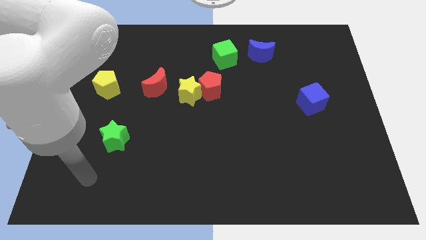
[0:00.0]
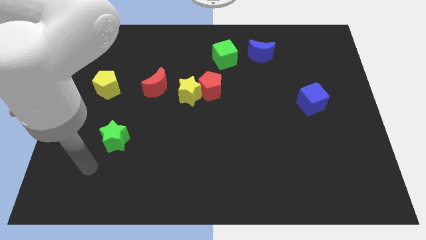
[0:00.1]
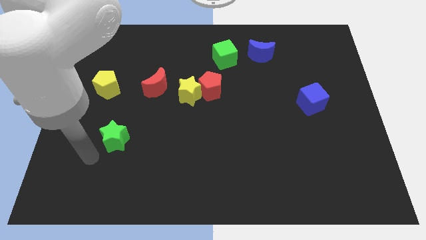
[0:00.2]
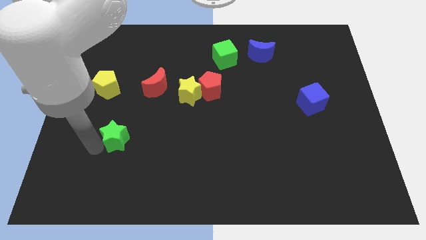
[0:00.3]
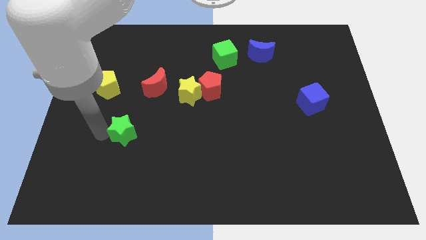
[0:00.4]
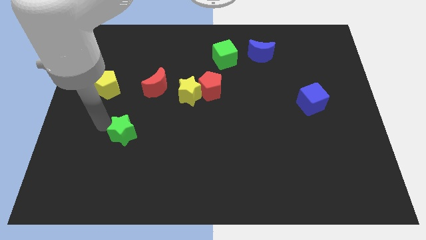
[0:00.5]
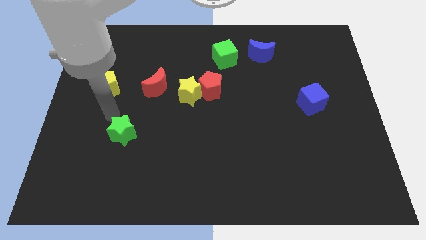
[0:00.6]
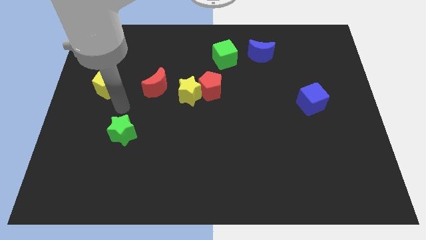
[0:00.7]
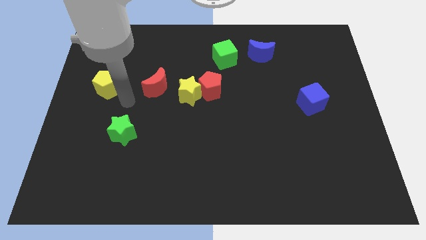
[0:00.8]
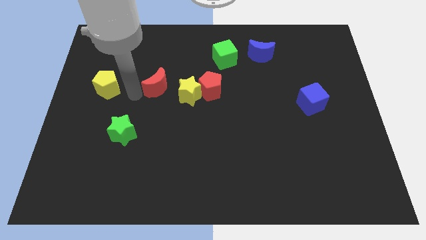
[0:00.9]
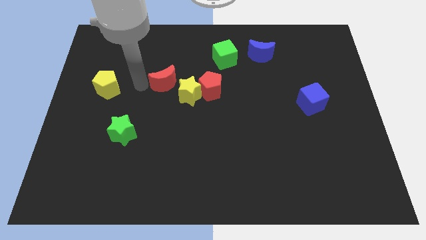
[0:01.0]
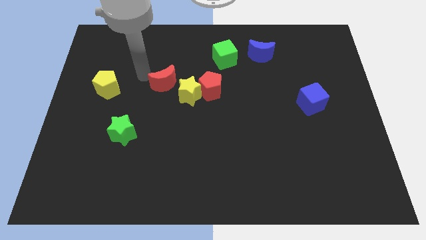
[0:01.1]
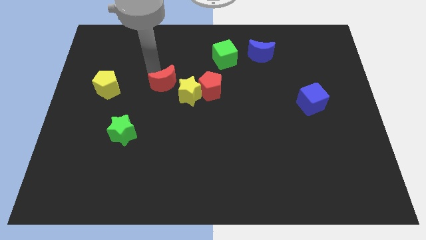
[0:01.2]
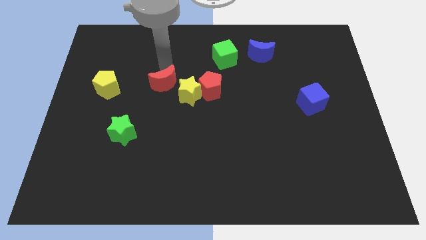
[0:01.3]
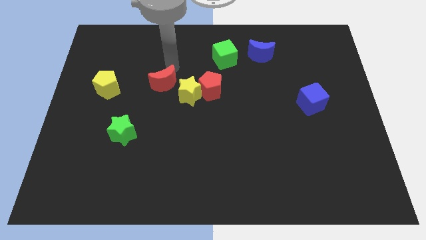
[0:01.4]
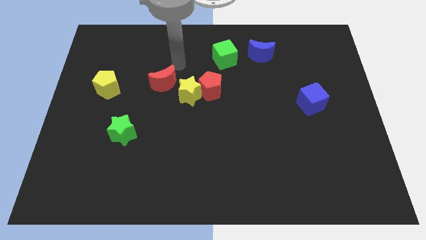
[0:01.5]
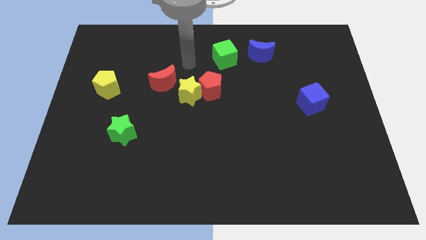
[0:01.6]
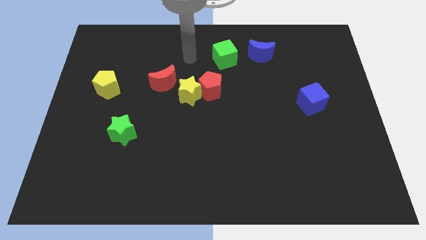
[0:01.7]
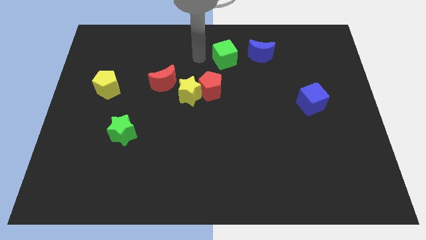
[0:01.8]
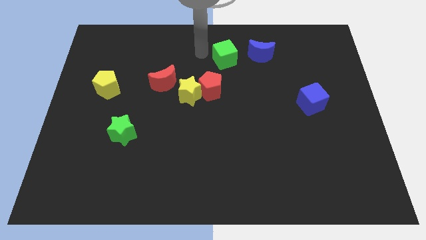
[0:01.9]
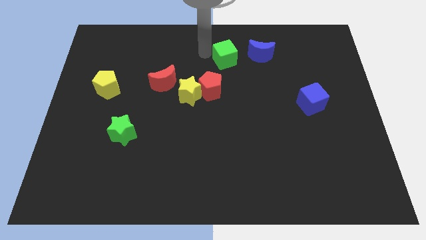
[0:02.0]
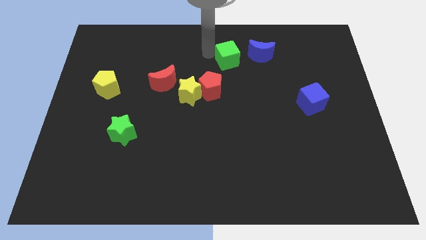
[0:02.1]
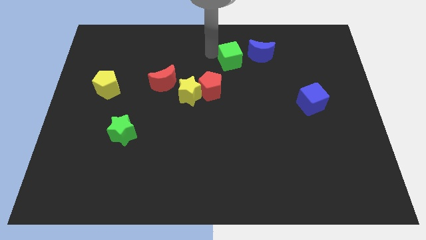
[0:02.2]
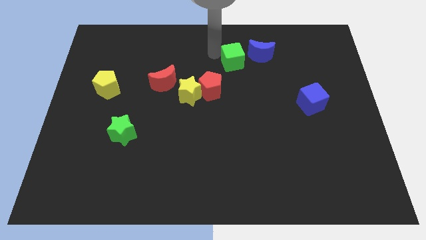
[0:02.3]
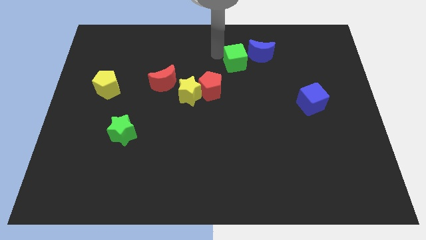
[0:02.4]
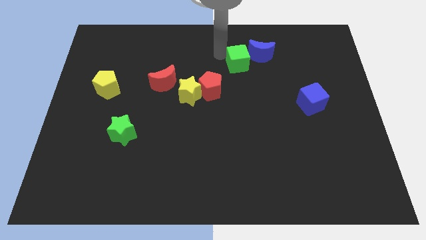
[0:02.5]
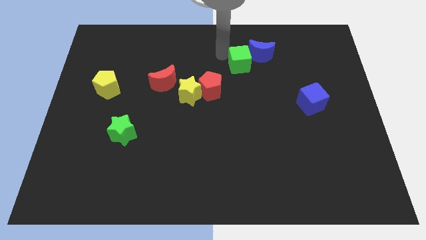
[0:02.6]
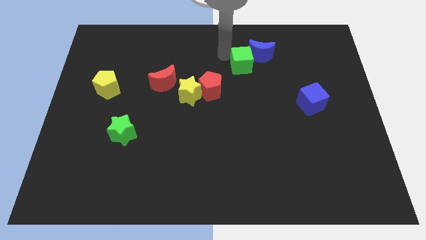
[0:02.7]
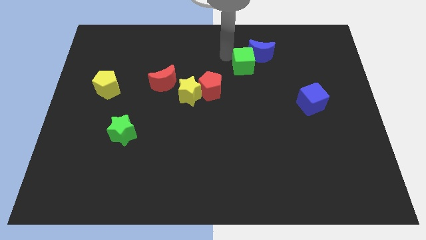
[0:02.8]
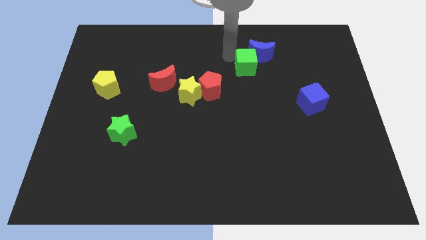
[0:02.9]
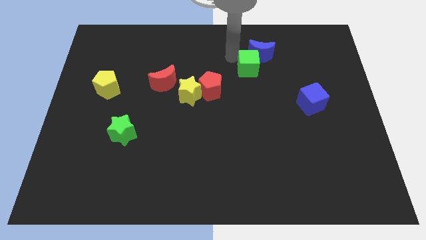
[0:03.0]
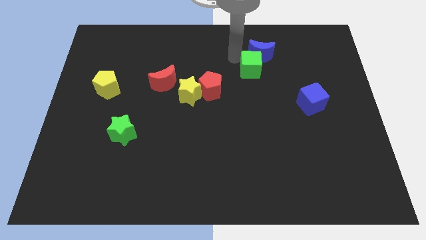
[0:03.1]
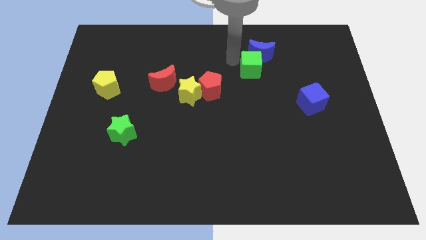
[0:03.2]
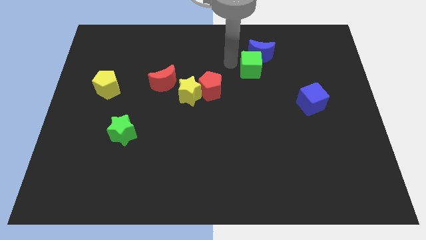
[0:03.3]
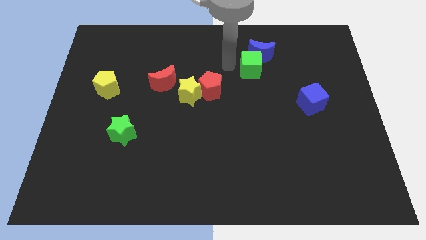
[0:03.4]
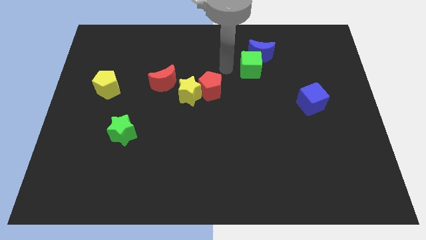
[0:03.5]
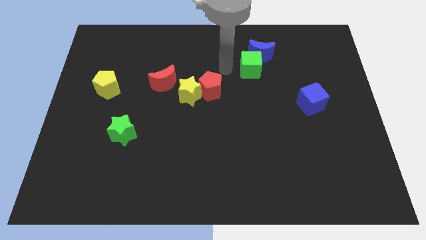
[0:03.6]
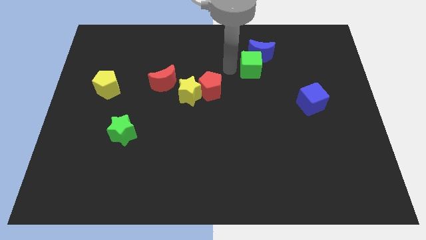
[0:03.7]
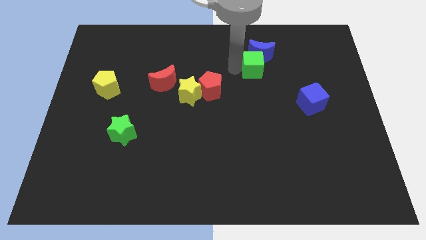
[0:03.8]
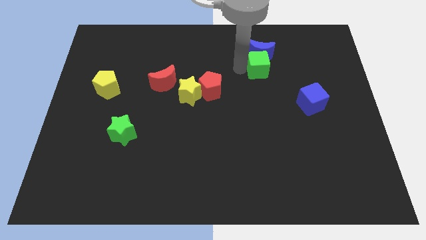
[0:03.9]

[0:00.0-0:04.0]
slightly slide the green cube to the right

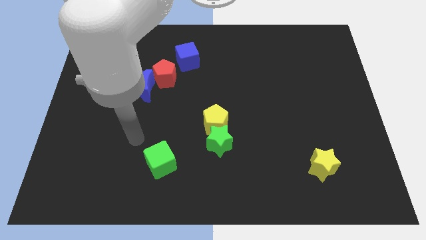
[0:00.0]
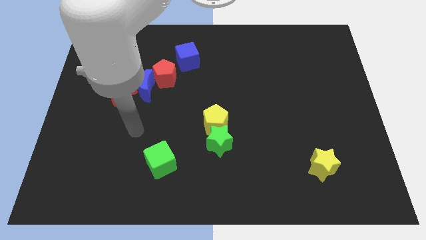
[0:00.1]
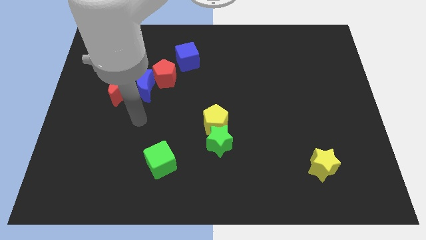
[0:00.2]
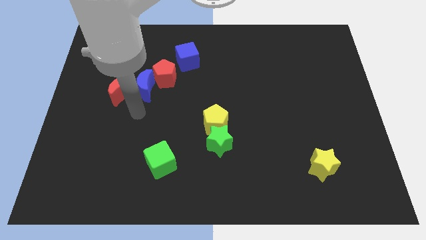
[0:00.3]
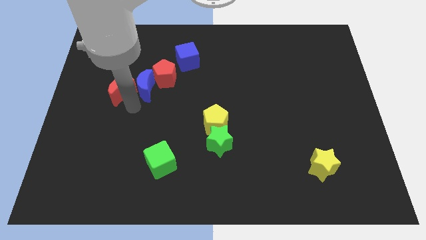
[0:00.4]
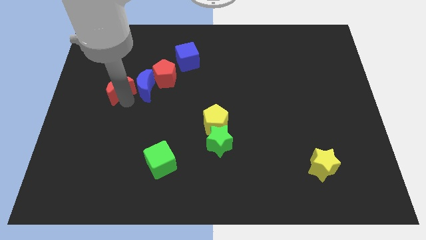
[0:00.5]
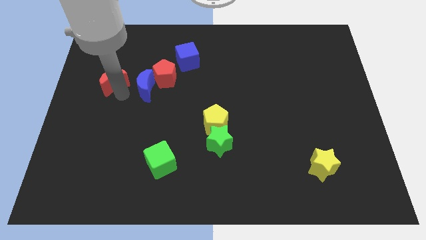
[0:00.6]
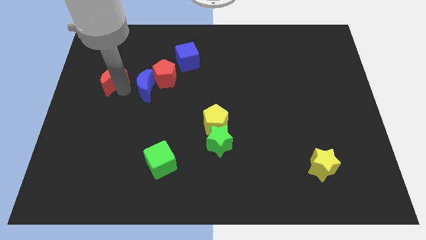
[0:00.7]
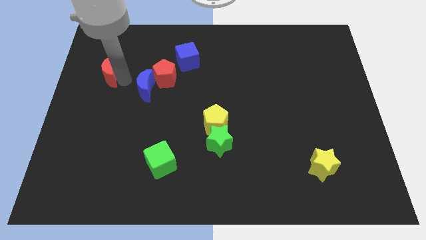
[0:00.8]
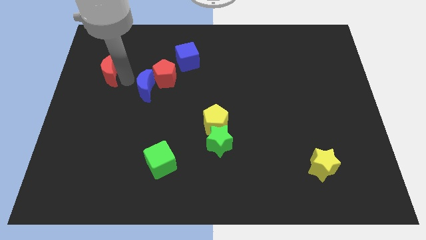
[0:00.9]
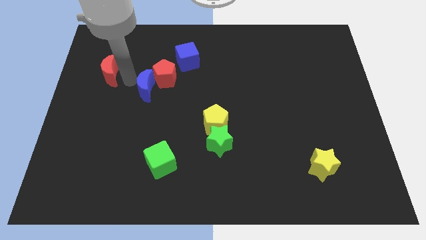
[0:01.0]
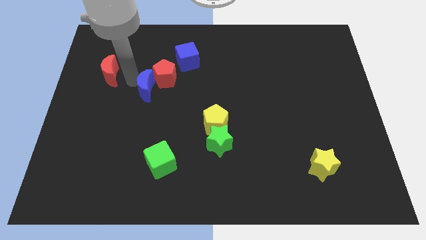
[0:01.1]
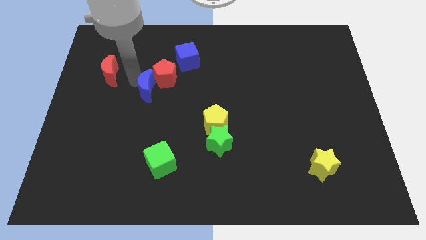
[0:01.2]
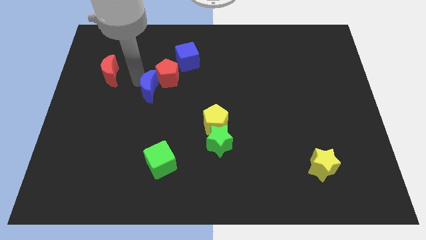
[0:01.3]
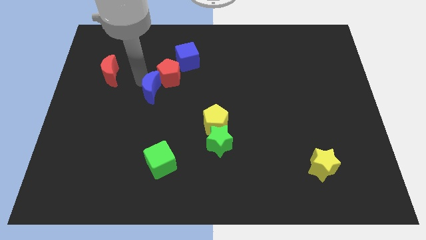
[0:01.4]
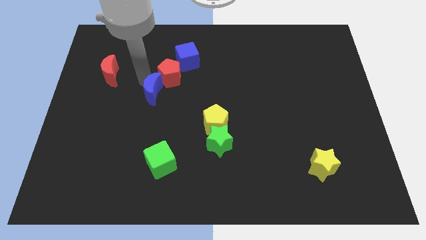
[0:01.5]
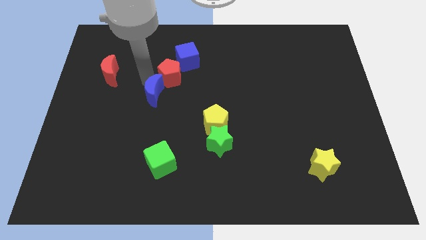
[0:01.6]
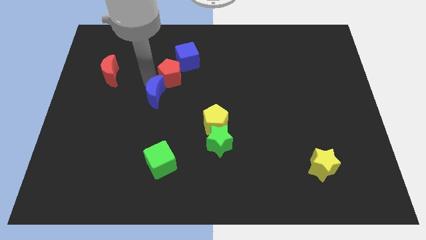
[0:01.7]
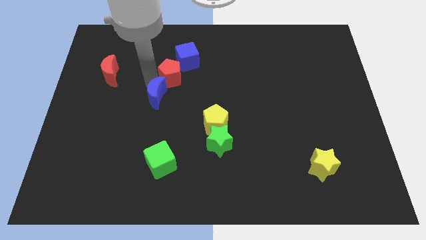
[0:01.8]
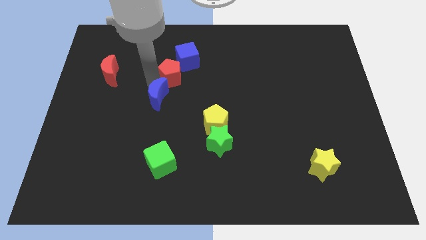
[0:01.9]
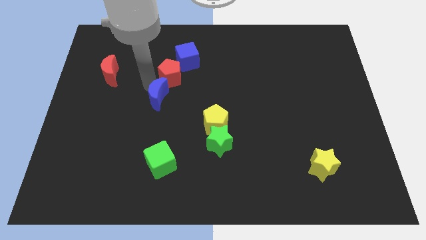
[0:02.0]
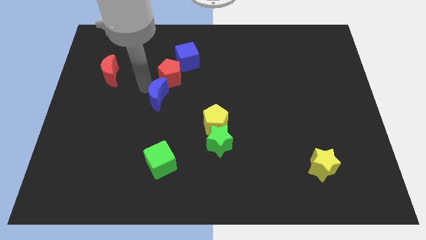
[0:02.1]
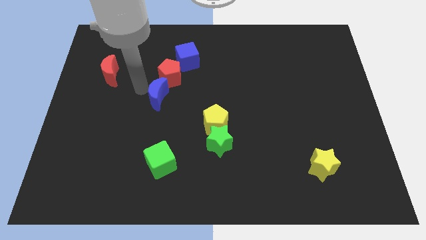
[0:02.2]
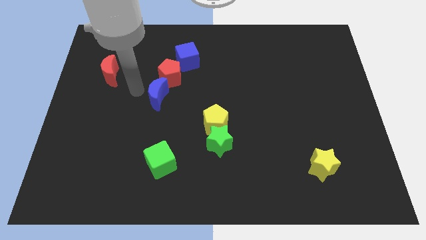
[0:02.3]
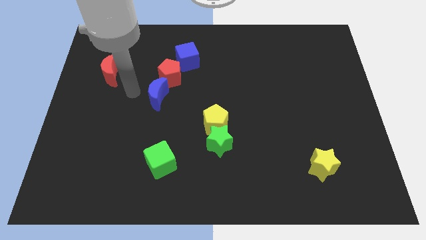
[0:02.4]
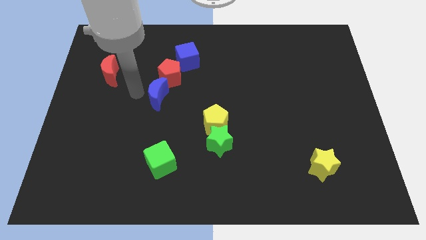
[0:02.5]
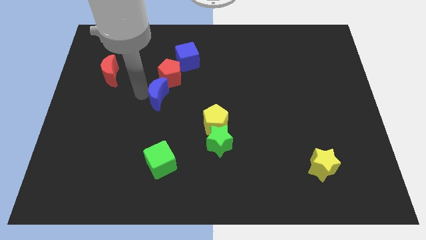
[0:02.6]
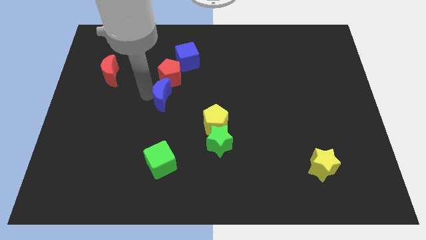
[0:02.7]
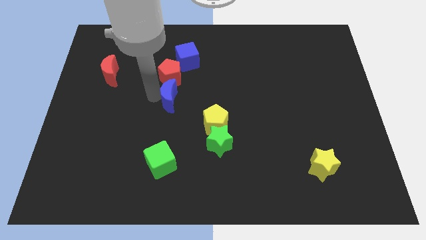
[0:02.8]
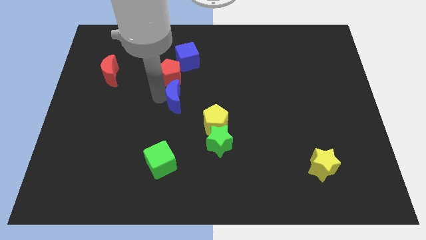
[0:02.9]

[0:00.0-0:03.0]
slightly slide the blue moon to the right

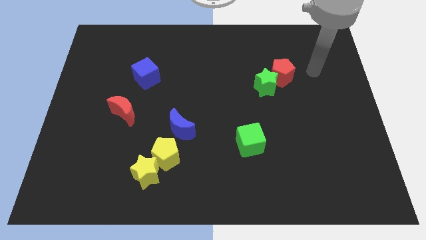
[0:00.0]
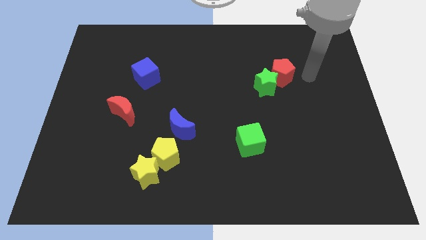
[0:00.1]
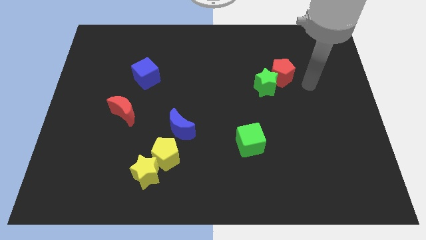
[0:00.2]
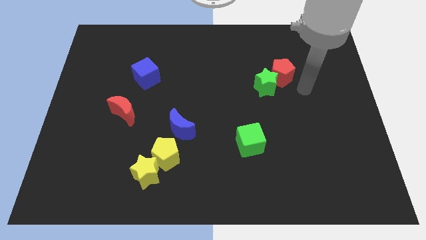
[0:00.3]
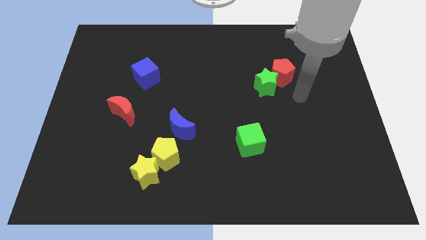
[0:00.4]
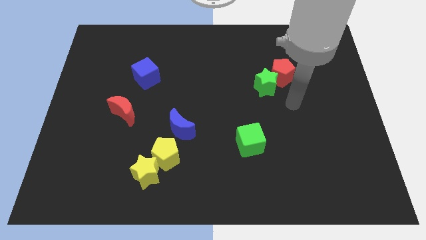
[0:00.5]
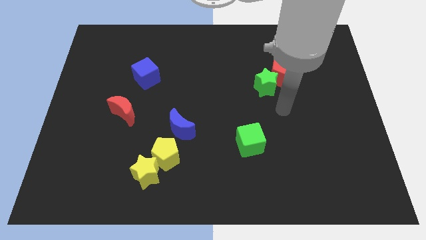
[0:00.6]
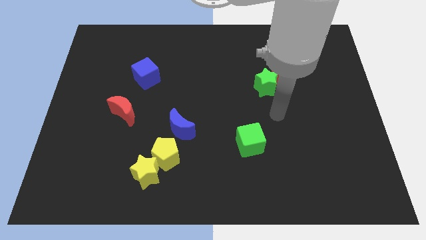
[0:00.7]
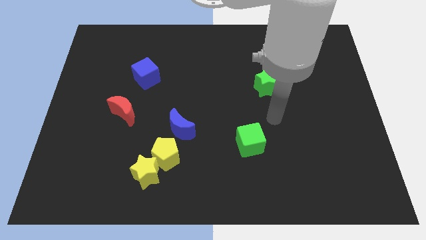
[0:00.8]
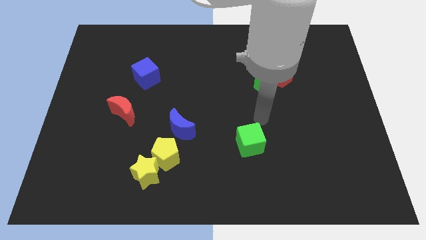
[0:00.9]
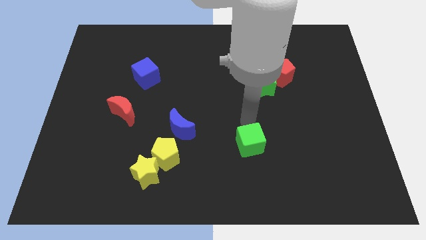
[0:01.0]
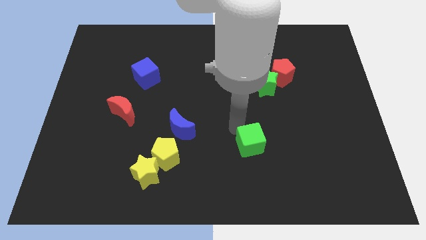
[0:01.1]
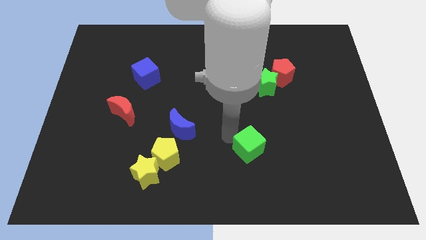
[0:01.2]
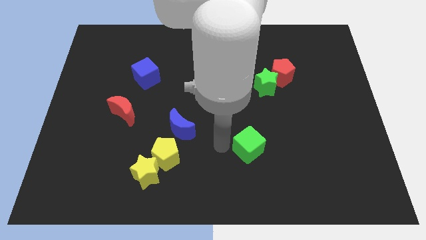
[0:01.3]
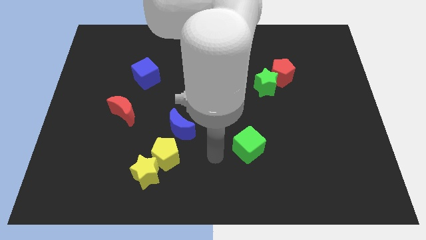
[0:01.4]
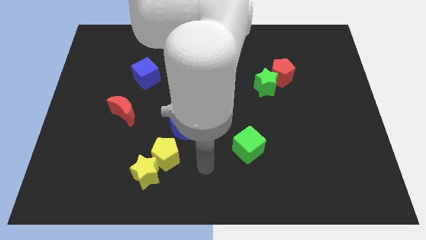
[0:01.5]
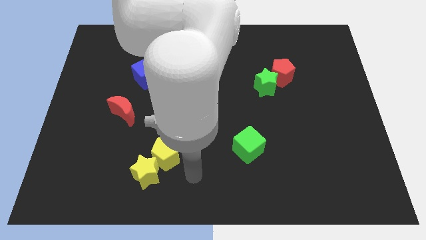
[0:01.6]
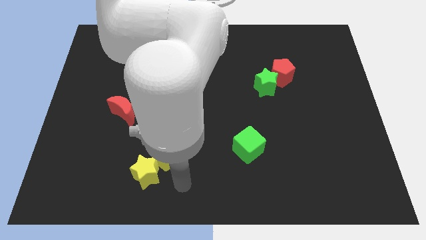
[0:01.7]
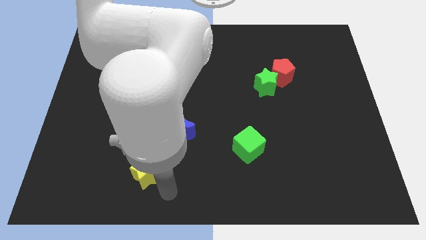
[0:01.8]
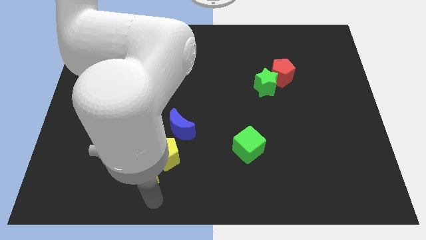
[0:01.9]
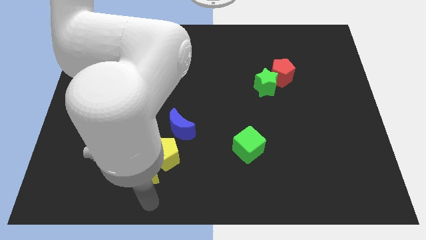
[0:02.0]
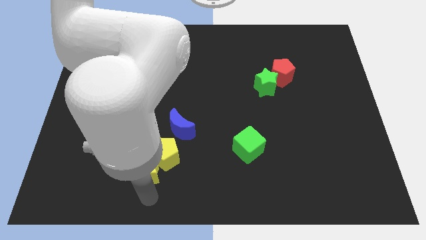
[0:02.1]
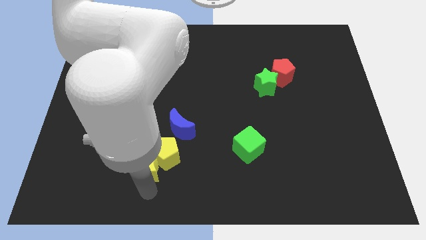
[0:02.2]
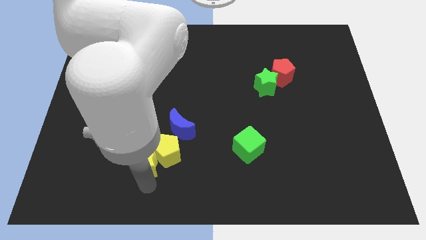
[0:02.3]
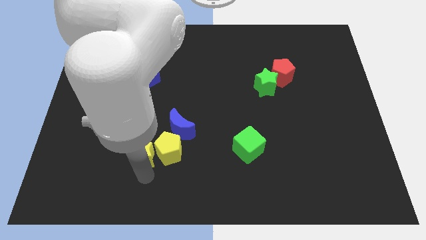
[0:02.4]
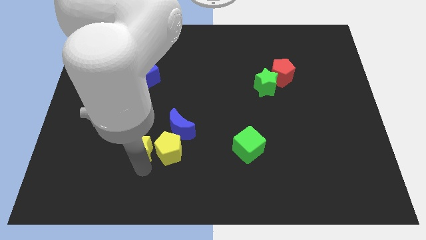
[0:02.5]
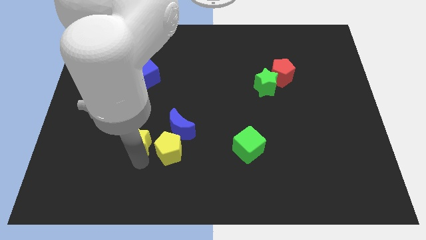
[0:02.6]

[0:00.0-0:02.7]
slightly push the yellow star upwards
